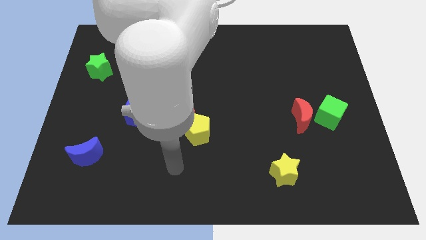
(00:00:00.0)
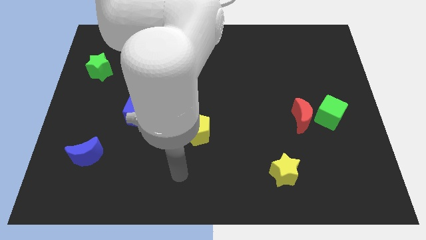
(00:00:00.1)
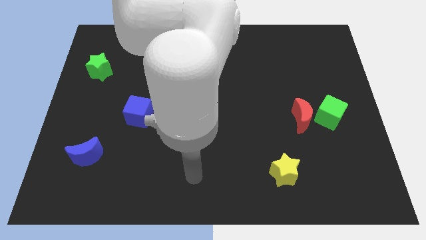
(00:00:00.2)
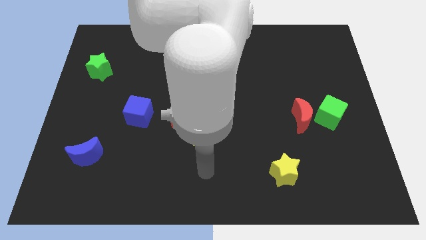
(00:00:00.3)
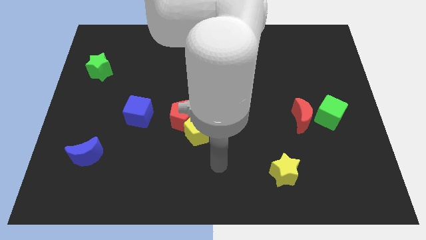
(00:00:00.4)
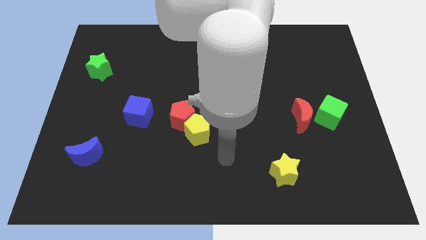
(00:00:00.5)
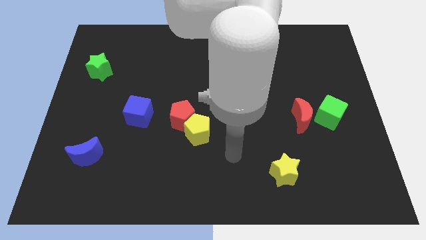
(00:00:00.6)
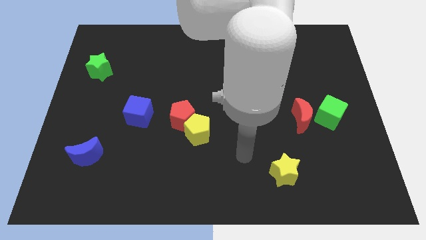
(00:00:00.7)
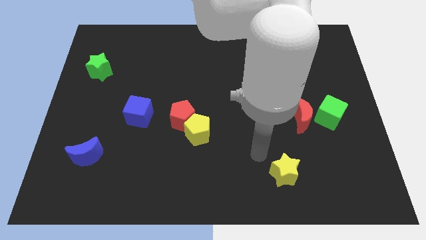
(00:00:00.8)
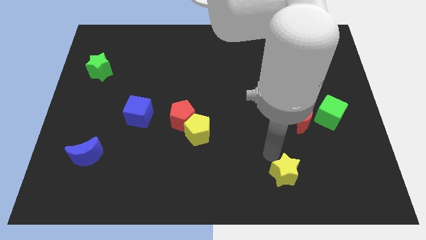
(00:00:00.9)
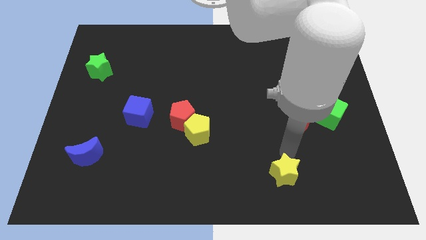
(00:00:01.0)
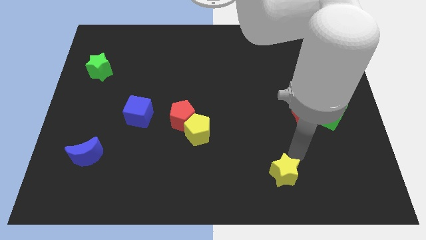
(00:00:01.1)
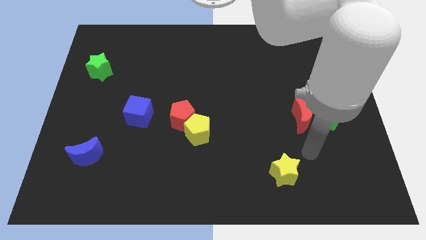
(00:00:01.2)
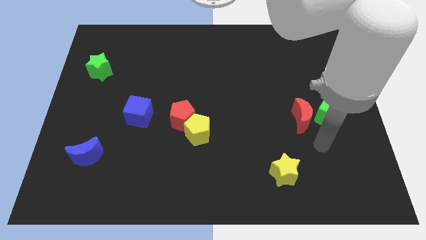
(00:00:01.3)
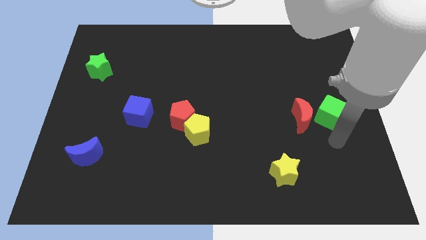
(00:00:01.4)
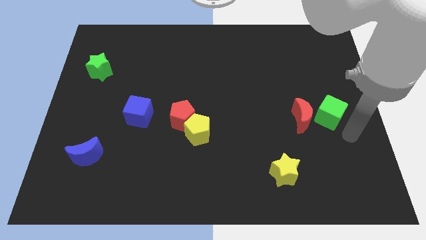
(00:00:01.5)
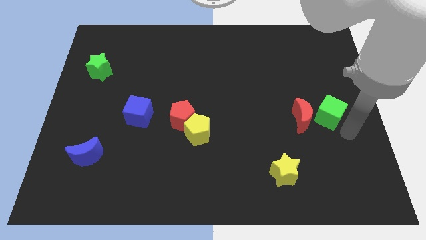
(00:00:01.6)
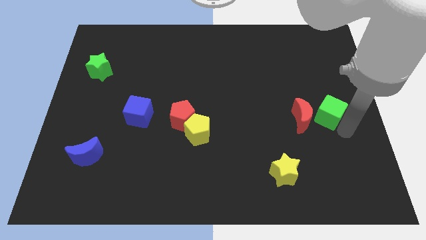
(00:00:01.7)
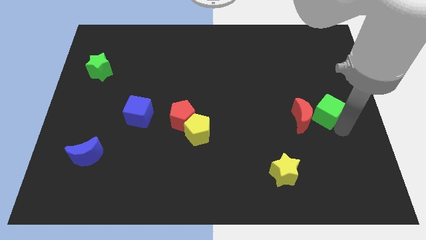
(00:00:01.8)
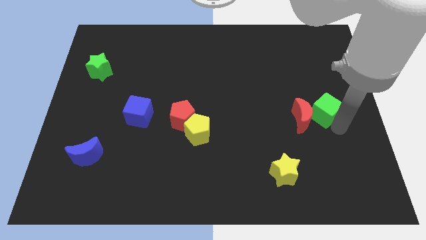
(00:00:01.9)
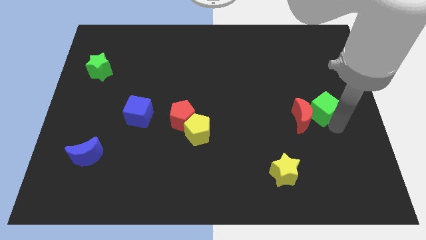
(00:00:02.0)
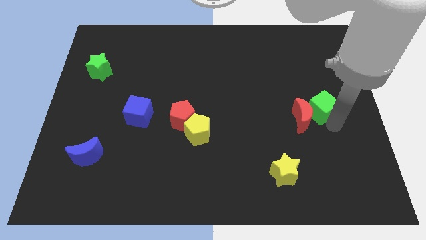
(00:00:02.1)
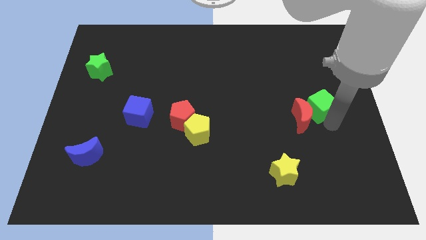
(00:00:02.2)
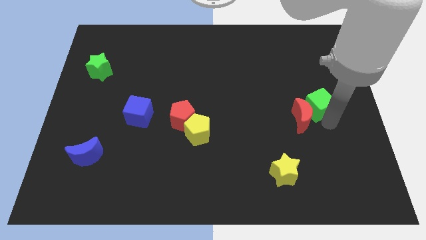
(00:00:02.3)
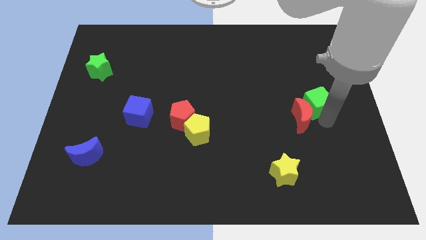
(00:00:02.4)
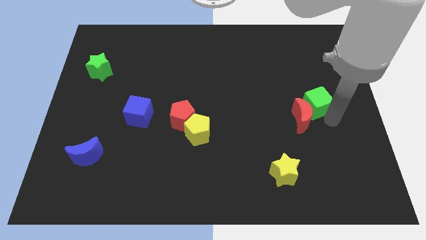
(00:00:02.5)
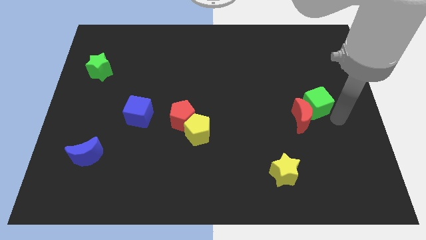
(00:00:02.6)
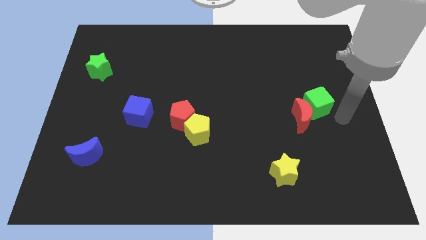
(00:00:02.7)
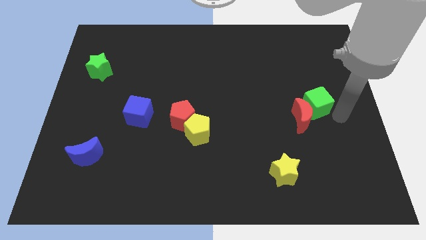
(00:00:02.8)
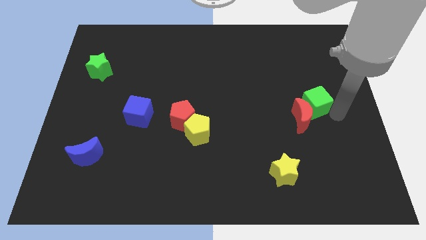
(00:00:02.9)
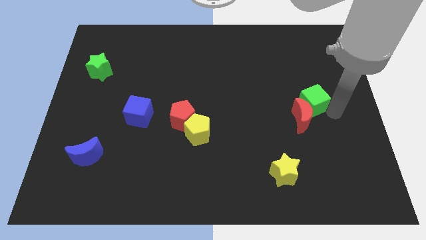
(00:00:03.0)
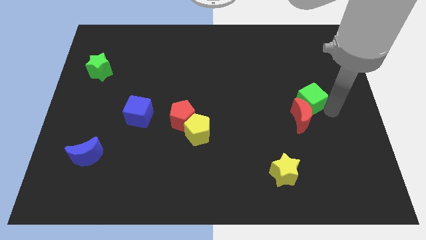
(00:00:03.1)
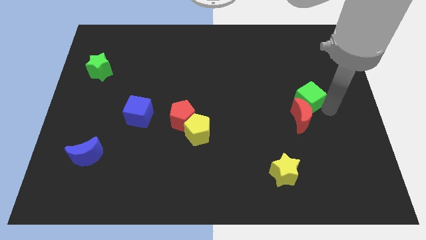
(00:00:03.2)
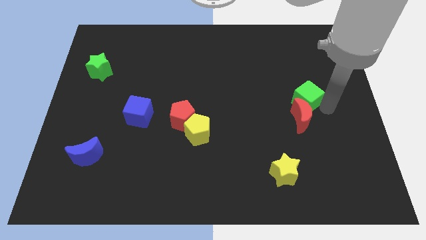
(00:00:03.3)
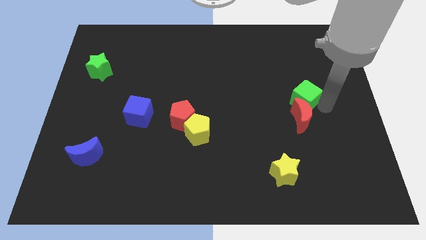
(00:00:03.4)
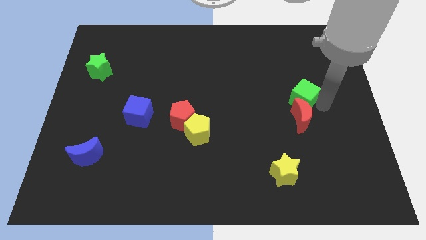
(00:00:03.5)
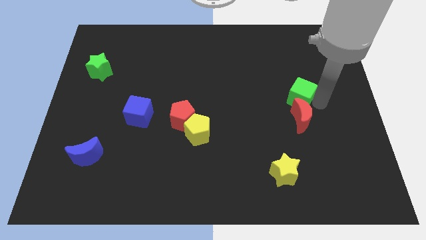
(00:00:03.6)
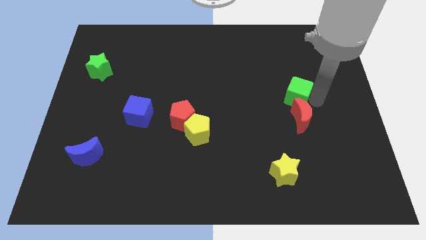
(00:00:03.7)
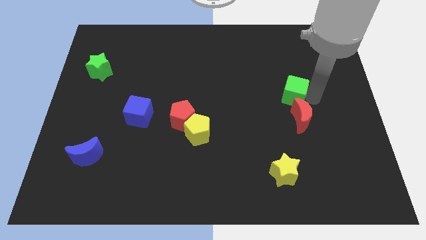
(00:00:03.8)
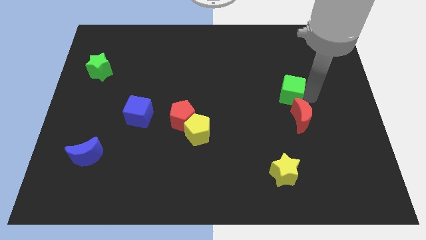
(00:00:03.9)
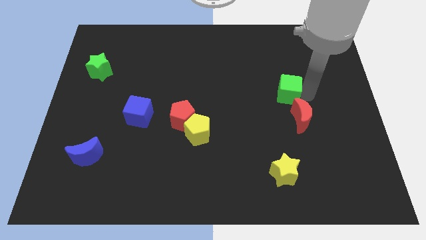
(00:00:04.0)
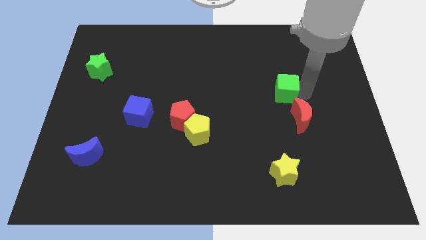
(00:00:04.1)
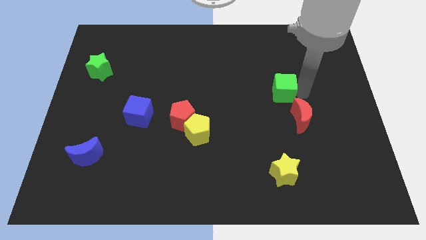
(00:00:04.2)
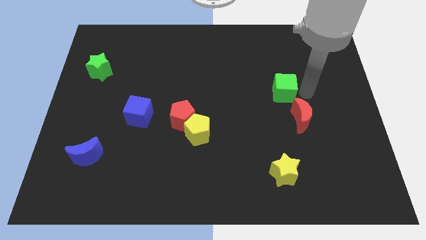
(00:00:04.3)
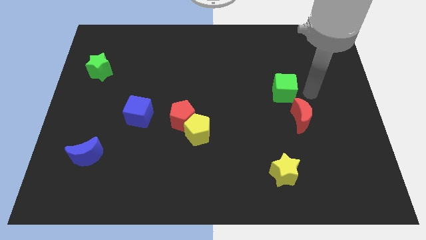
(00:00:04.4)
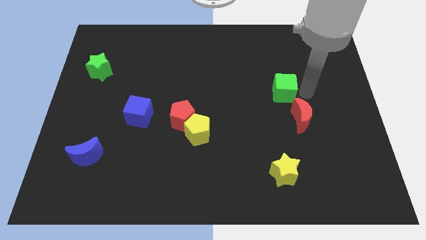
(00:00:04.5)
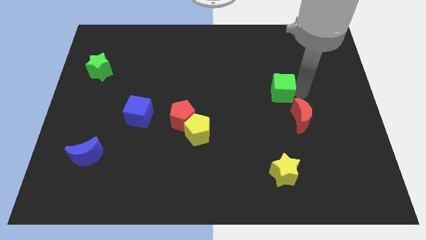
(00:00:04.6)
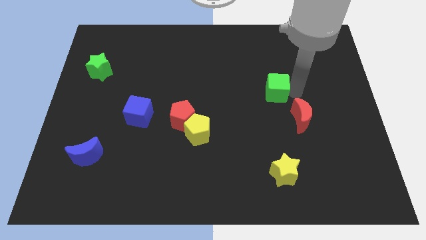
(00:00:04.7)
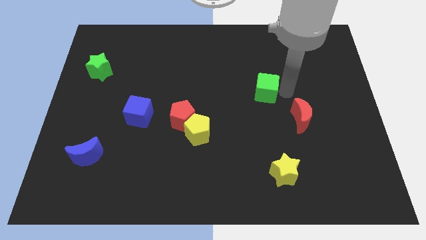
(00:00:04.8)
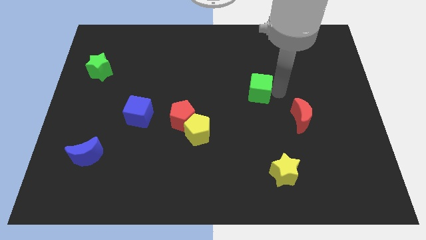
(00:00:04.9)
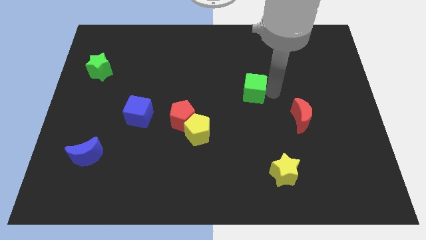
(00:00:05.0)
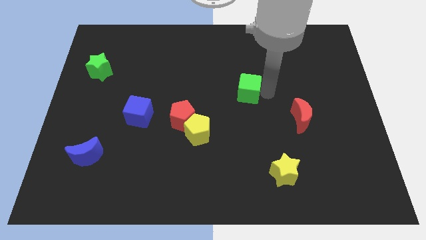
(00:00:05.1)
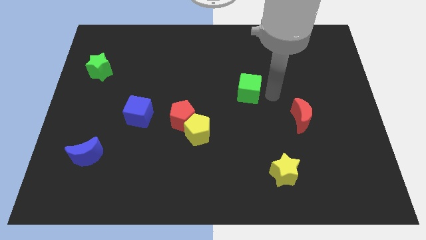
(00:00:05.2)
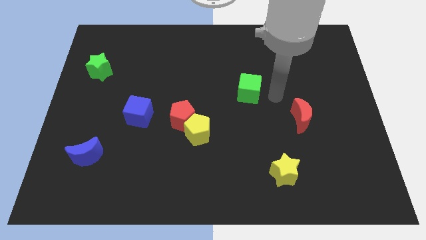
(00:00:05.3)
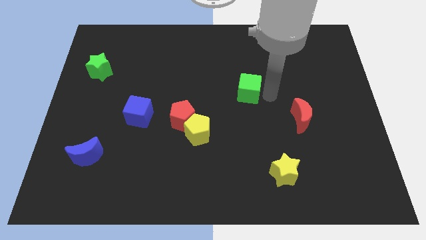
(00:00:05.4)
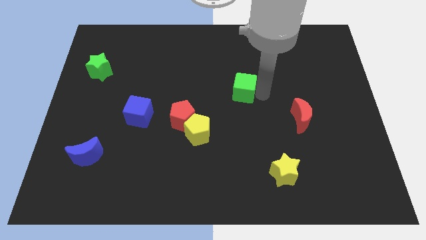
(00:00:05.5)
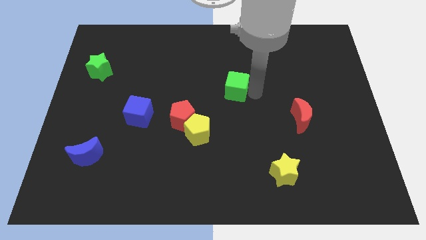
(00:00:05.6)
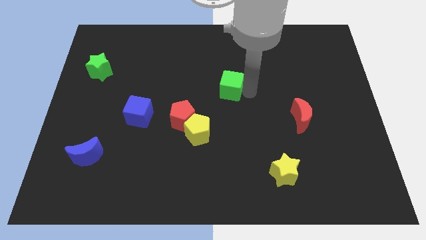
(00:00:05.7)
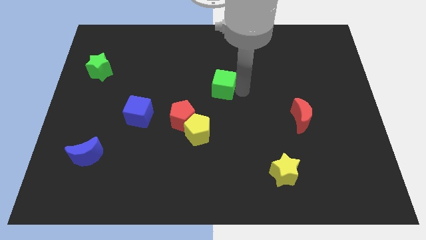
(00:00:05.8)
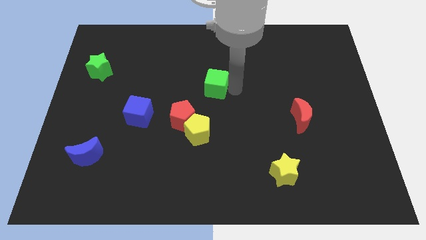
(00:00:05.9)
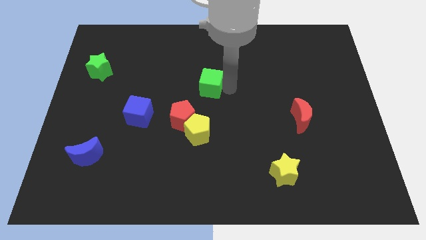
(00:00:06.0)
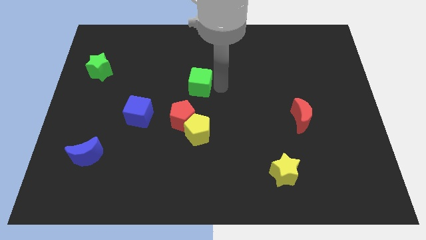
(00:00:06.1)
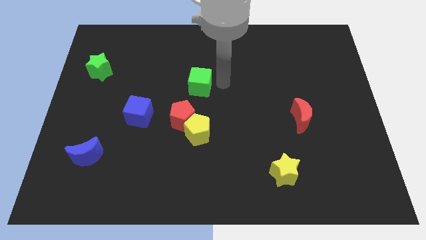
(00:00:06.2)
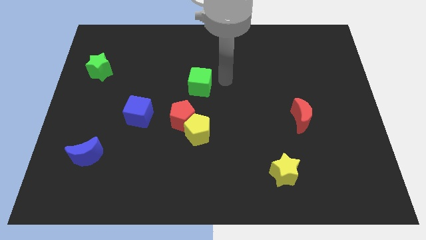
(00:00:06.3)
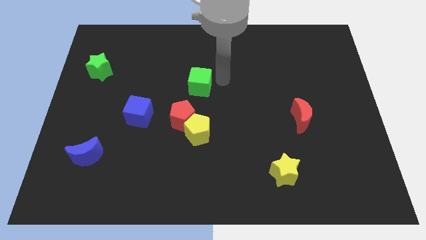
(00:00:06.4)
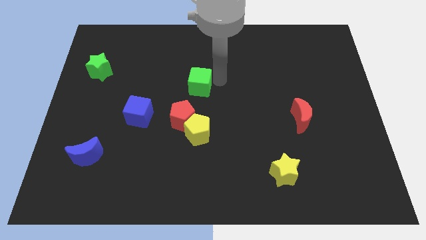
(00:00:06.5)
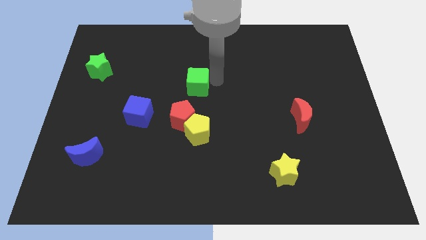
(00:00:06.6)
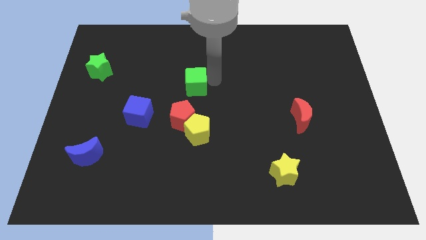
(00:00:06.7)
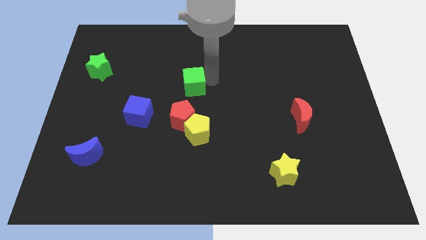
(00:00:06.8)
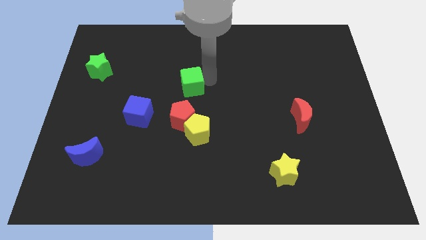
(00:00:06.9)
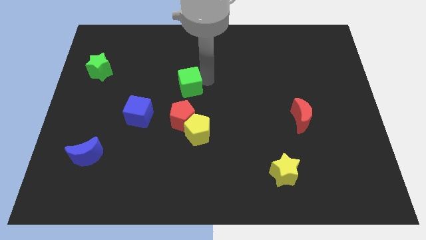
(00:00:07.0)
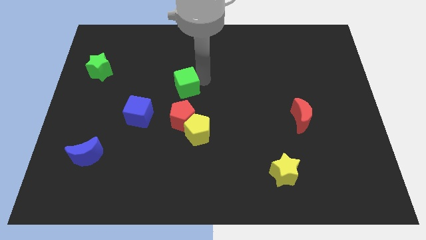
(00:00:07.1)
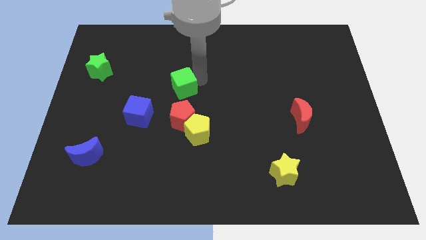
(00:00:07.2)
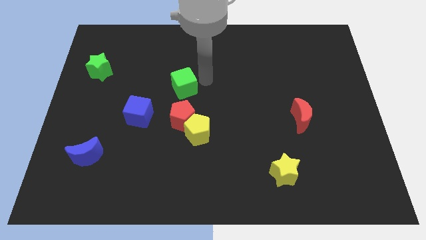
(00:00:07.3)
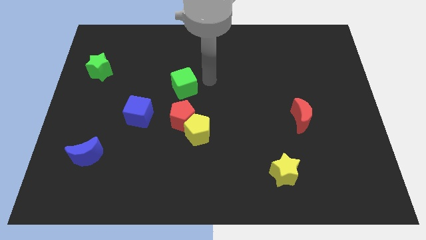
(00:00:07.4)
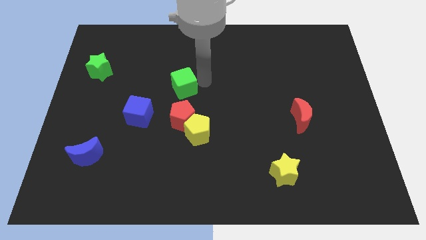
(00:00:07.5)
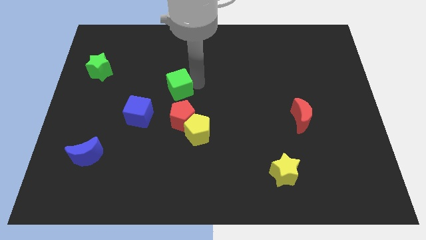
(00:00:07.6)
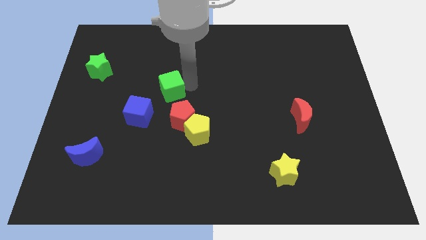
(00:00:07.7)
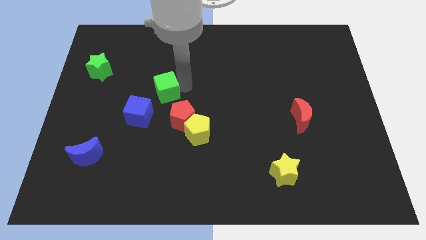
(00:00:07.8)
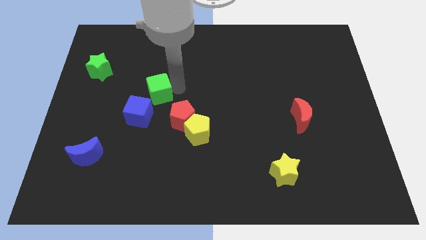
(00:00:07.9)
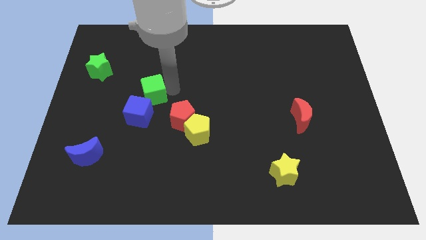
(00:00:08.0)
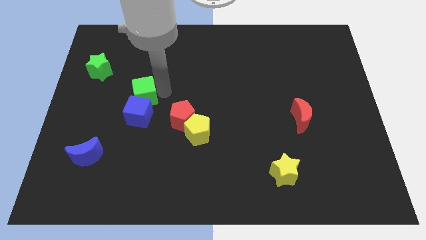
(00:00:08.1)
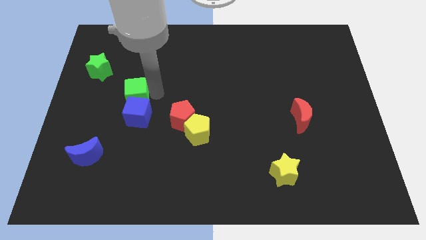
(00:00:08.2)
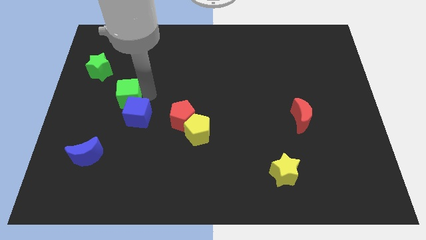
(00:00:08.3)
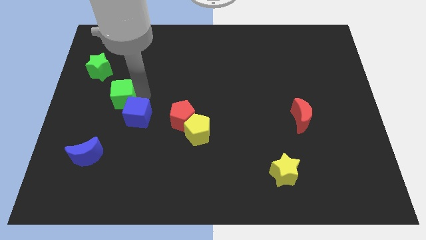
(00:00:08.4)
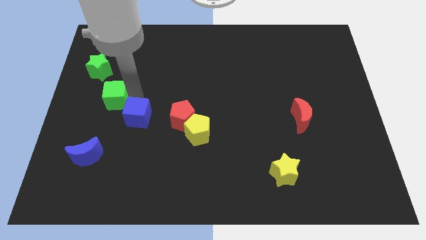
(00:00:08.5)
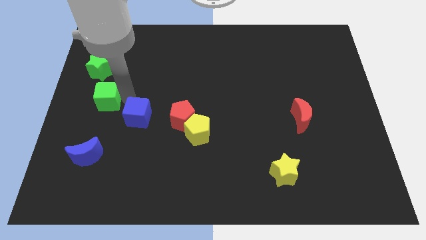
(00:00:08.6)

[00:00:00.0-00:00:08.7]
move the green cube to the left side
